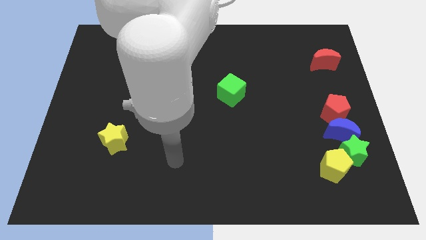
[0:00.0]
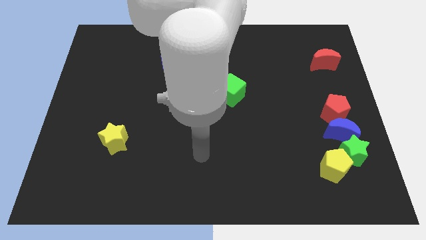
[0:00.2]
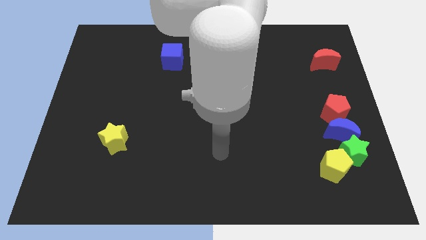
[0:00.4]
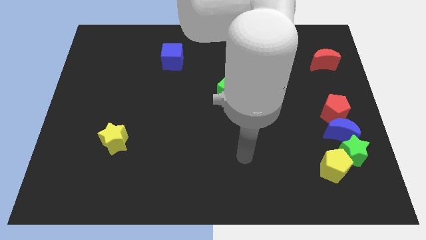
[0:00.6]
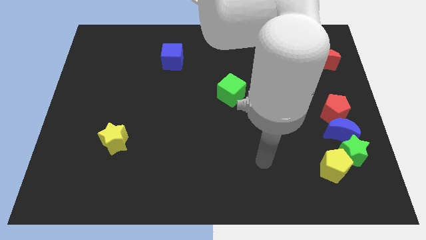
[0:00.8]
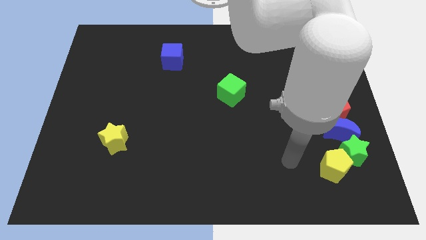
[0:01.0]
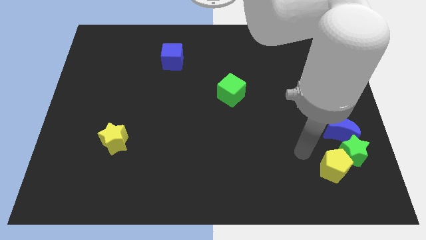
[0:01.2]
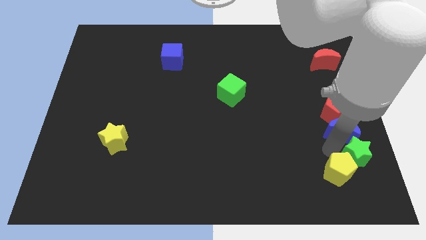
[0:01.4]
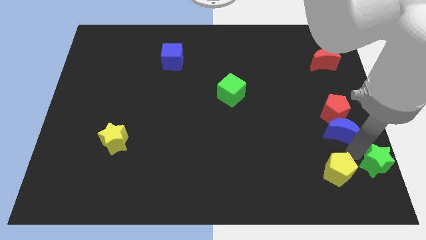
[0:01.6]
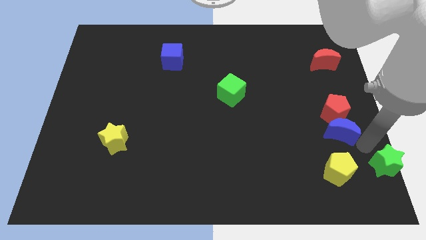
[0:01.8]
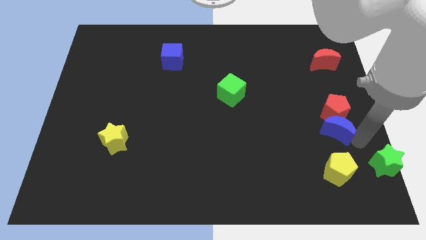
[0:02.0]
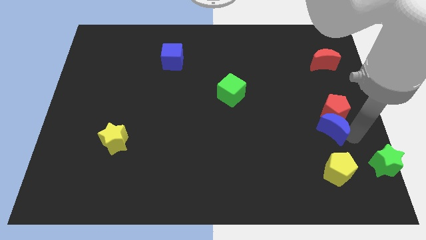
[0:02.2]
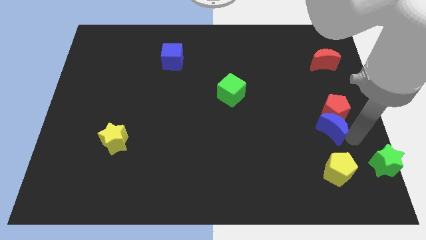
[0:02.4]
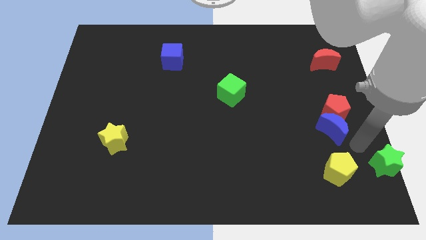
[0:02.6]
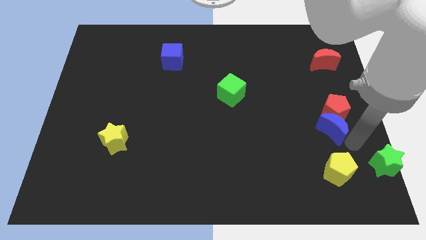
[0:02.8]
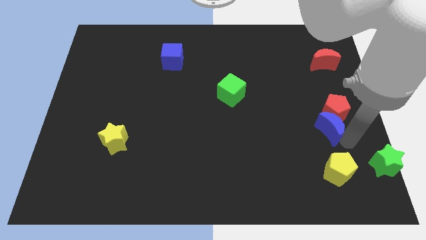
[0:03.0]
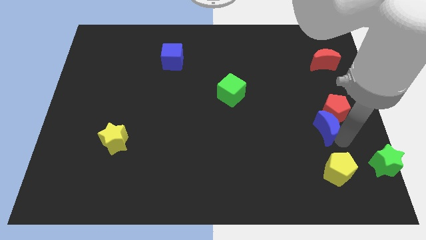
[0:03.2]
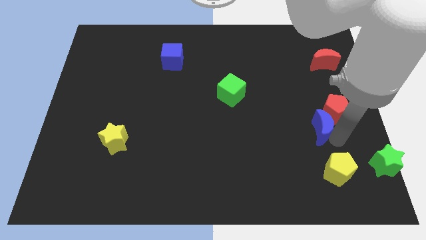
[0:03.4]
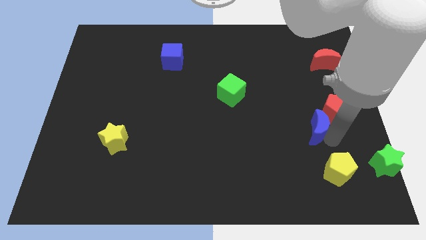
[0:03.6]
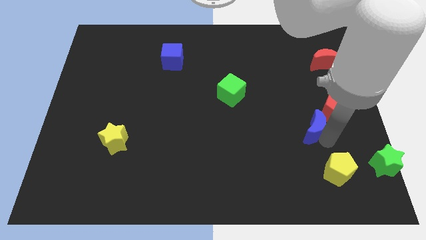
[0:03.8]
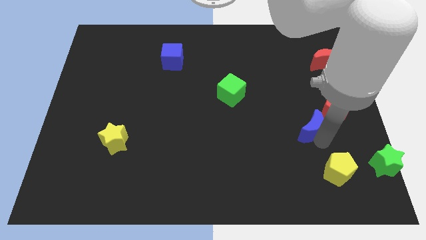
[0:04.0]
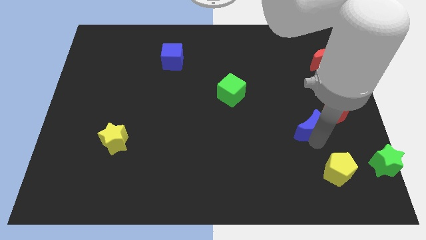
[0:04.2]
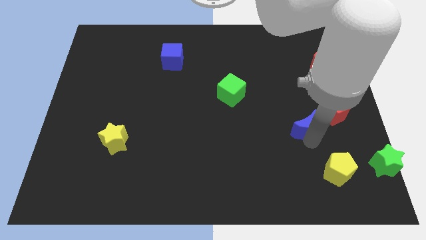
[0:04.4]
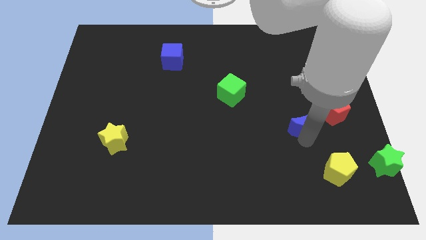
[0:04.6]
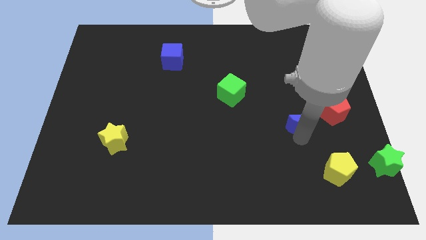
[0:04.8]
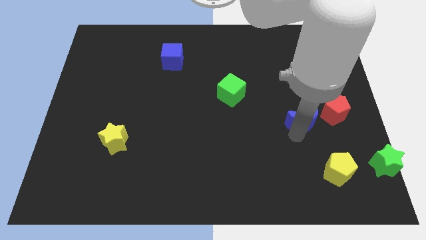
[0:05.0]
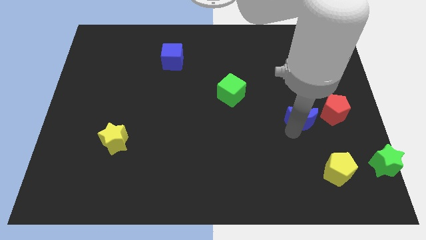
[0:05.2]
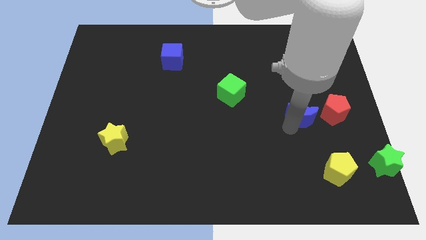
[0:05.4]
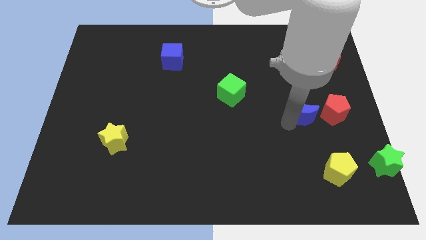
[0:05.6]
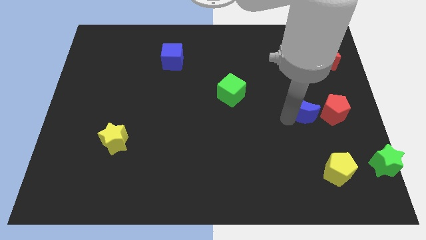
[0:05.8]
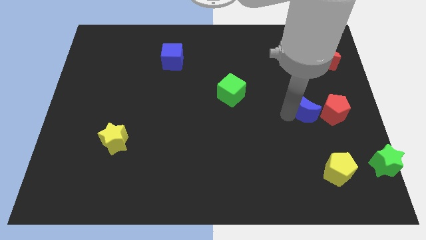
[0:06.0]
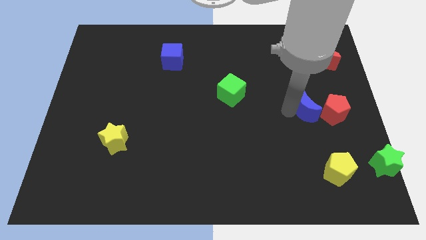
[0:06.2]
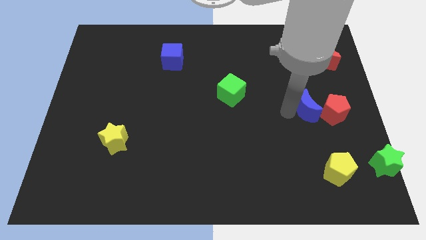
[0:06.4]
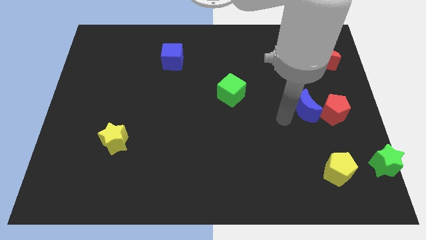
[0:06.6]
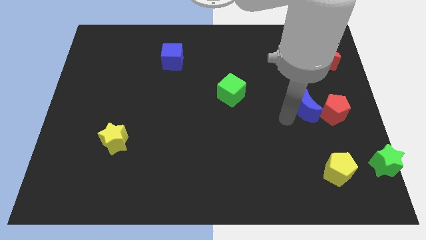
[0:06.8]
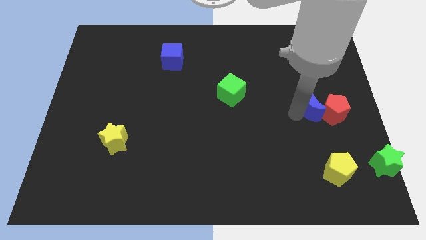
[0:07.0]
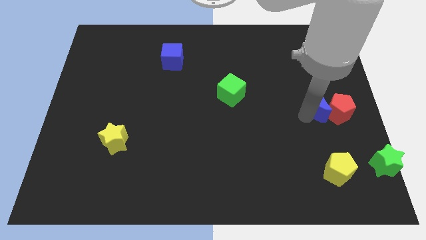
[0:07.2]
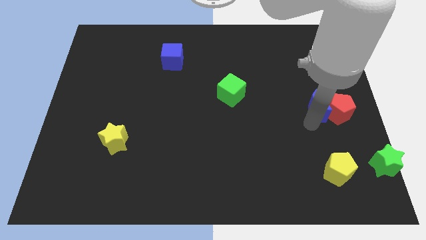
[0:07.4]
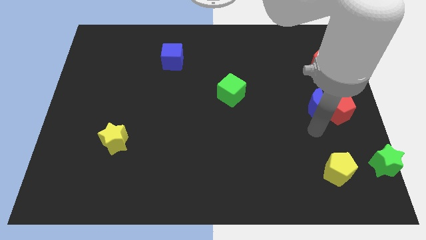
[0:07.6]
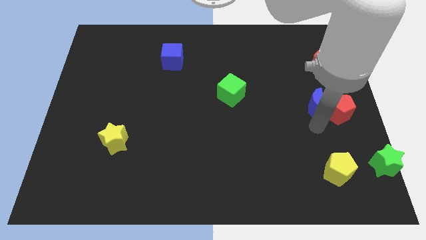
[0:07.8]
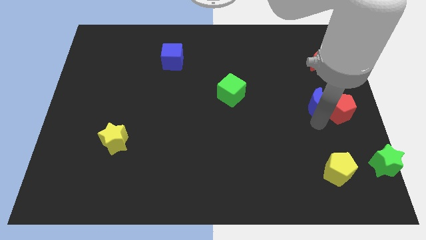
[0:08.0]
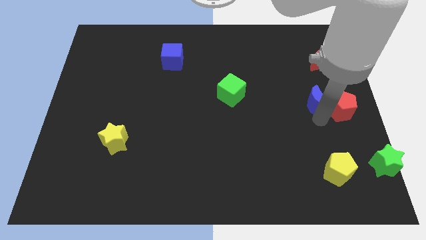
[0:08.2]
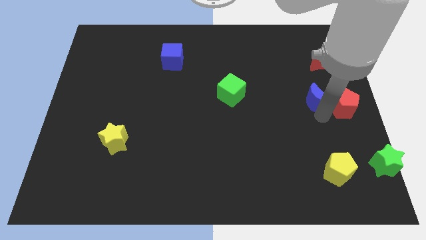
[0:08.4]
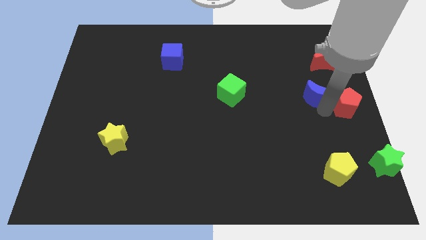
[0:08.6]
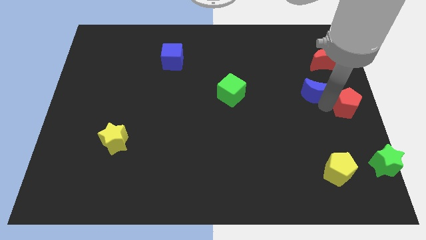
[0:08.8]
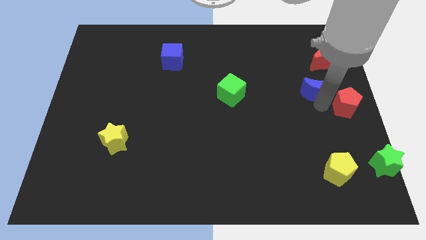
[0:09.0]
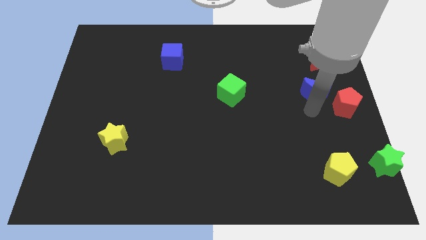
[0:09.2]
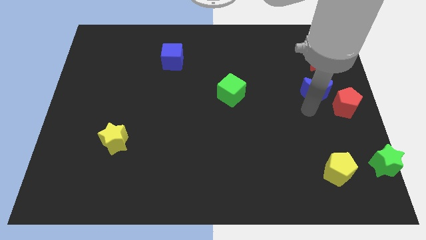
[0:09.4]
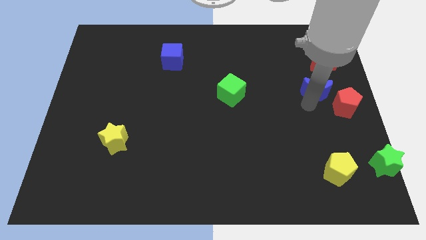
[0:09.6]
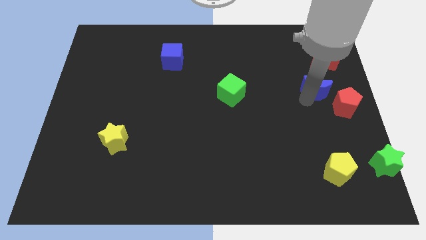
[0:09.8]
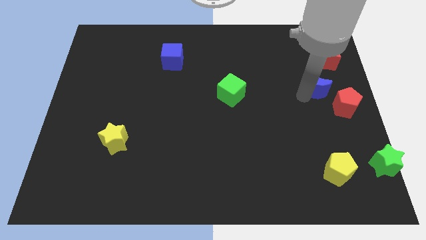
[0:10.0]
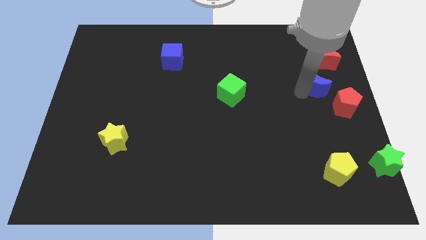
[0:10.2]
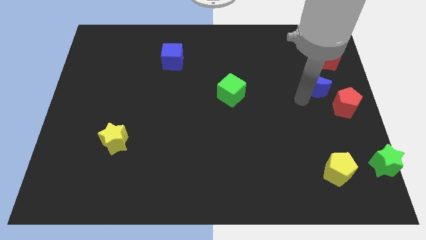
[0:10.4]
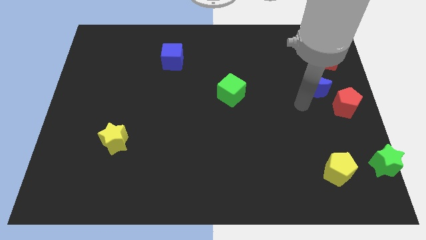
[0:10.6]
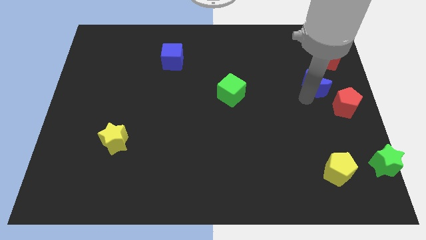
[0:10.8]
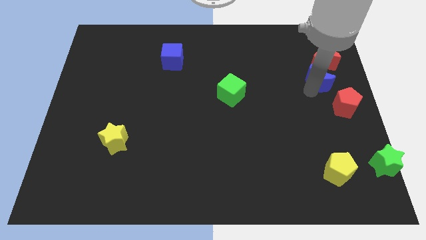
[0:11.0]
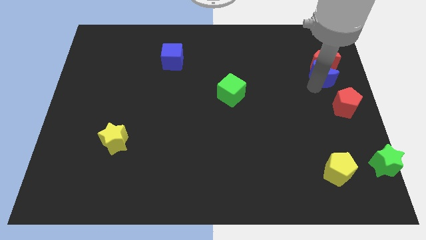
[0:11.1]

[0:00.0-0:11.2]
slide the blue moon towards the red moon

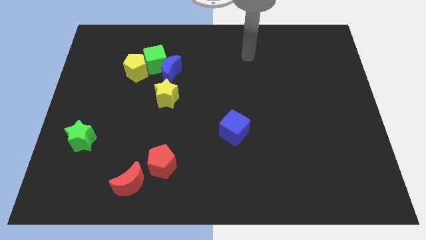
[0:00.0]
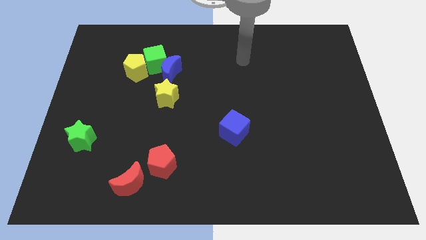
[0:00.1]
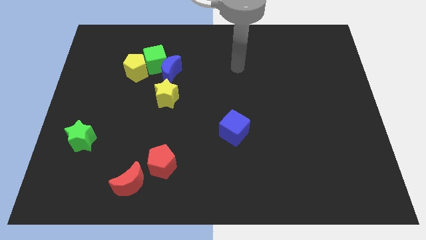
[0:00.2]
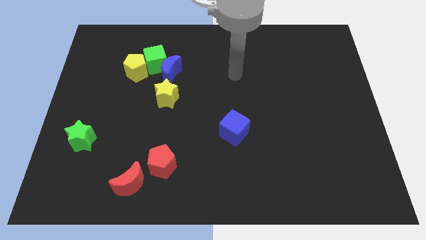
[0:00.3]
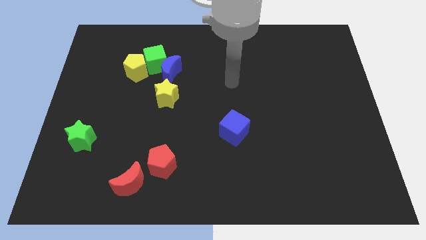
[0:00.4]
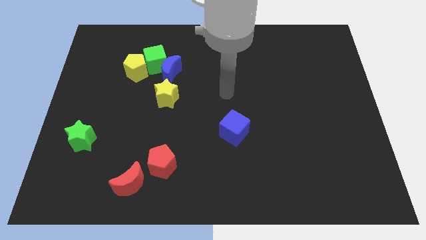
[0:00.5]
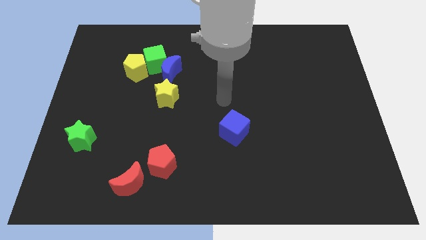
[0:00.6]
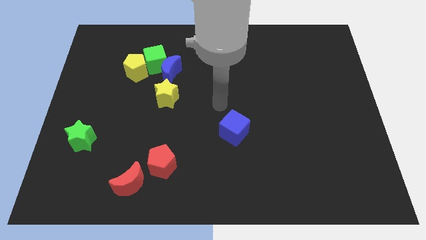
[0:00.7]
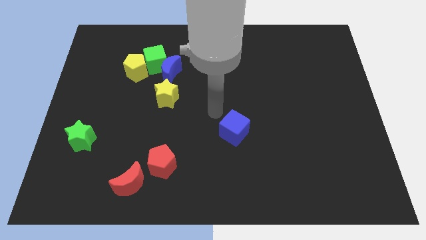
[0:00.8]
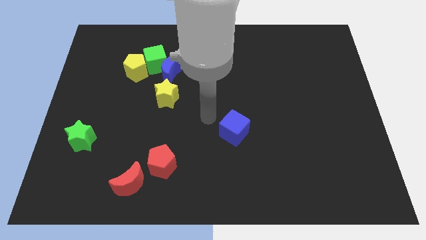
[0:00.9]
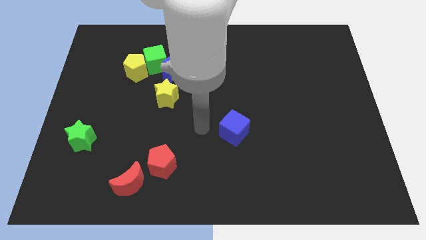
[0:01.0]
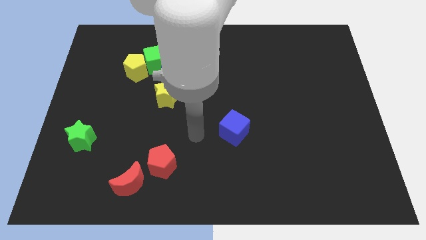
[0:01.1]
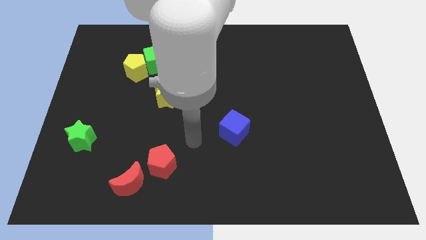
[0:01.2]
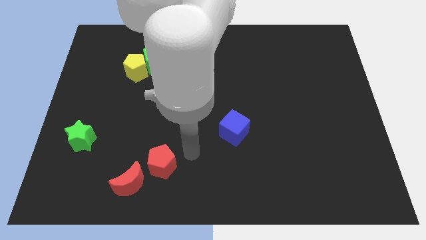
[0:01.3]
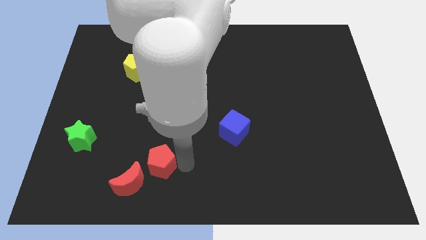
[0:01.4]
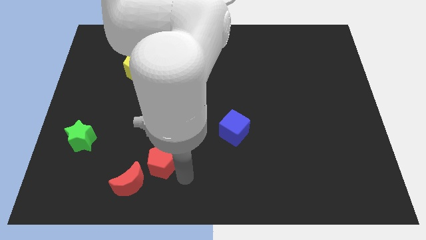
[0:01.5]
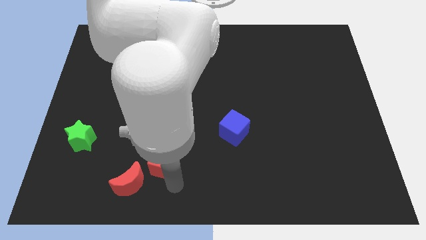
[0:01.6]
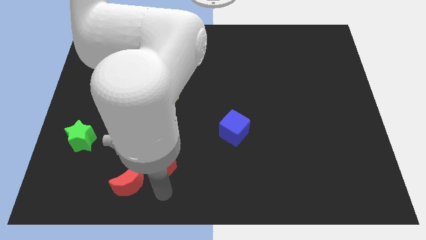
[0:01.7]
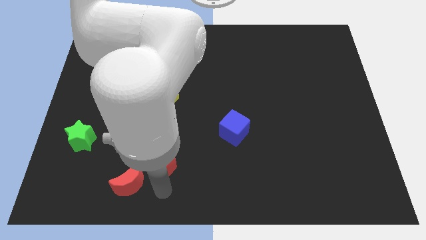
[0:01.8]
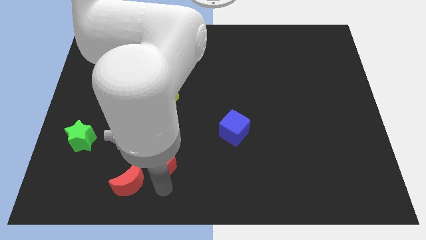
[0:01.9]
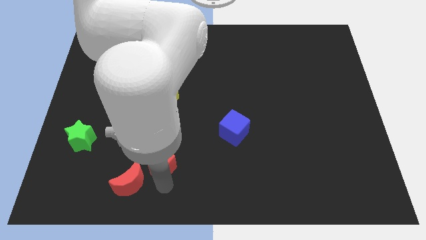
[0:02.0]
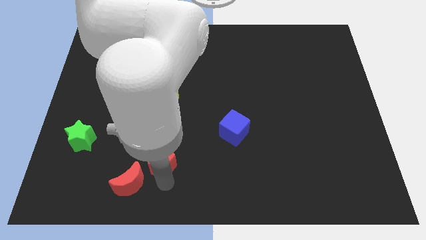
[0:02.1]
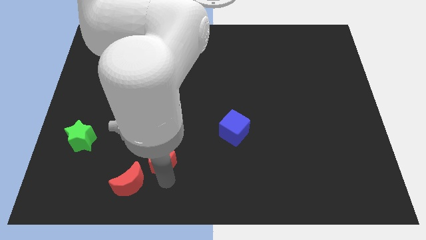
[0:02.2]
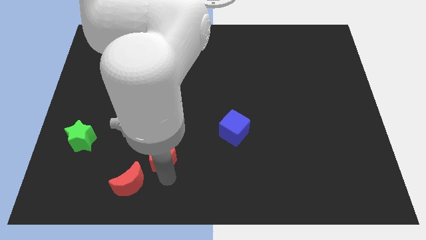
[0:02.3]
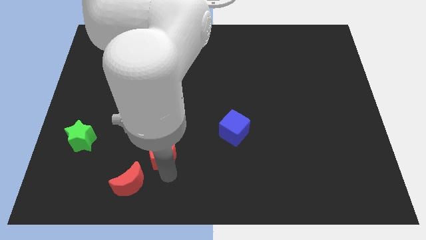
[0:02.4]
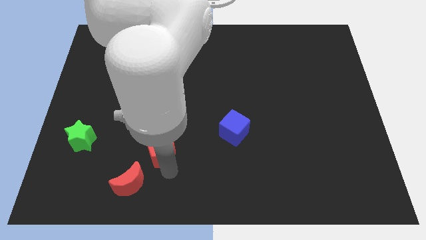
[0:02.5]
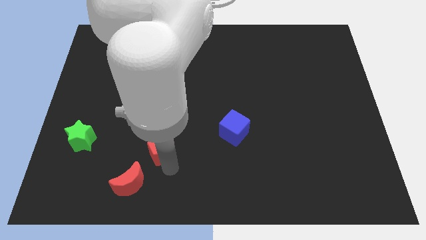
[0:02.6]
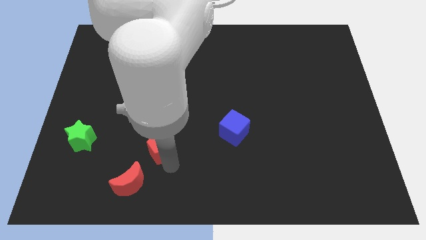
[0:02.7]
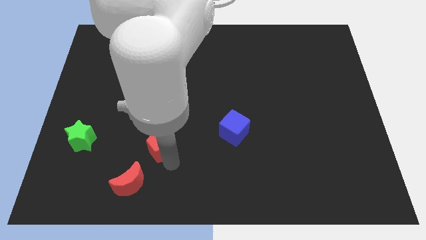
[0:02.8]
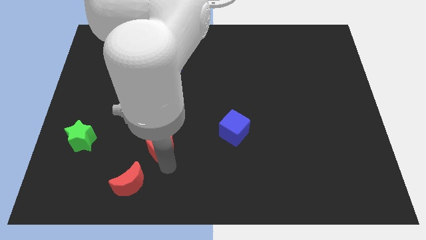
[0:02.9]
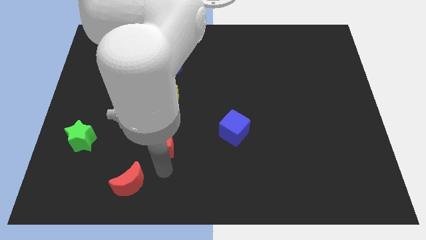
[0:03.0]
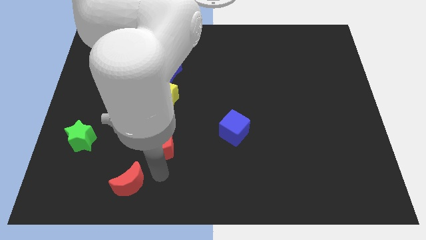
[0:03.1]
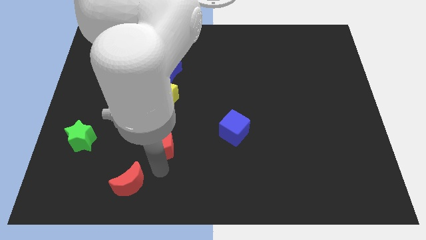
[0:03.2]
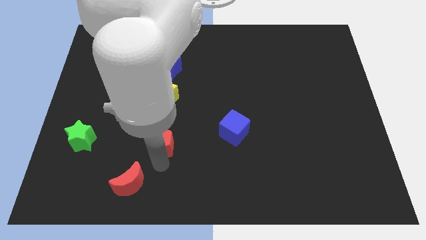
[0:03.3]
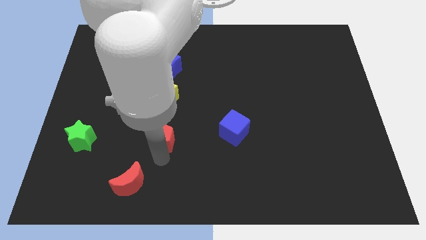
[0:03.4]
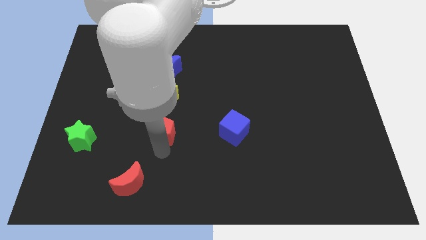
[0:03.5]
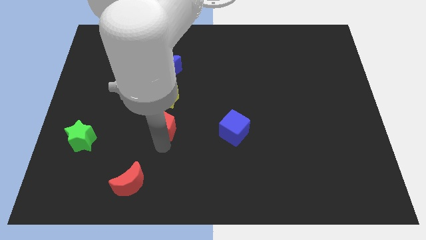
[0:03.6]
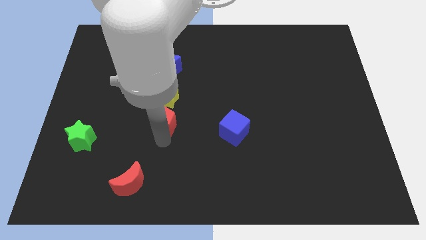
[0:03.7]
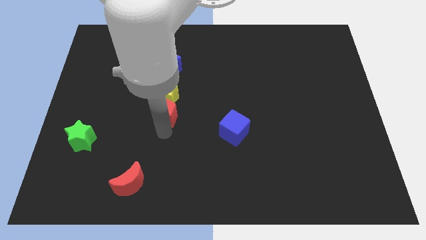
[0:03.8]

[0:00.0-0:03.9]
push the red pentagon next to the yellow star
